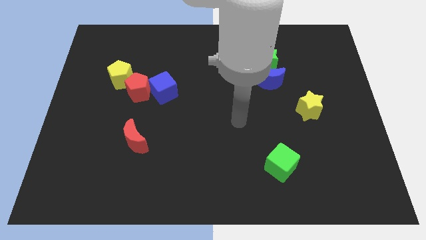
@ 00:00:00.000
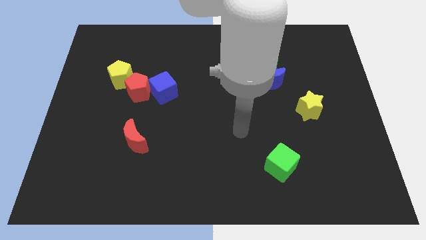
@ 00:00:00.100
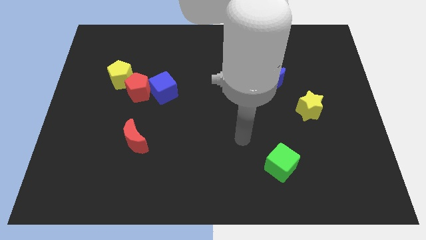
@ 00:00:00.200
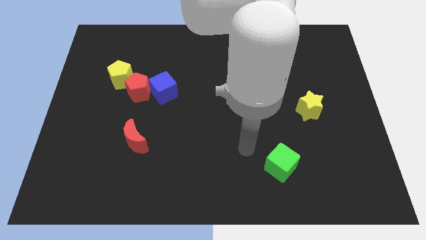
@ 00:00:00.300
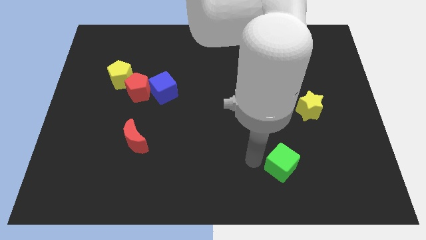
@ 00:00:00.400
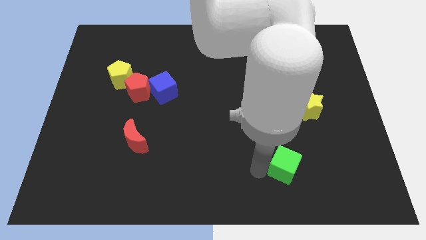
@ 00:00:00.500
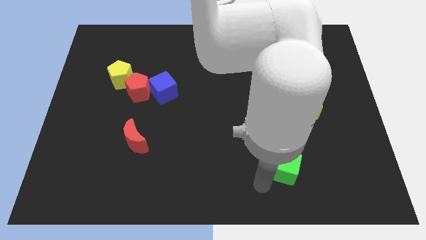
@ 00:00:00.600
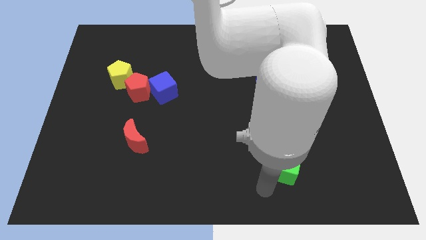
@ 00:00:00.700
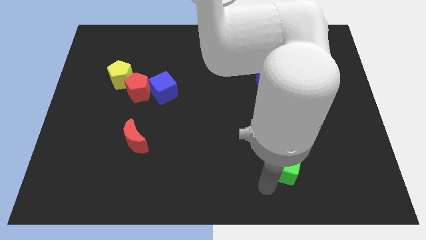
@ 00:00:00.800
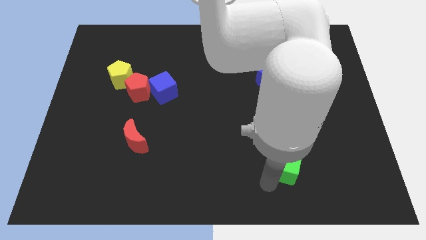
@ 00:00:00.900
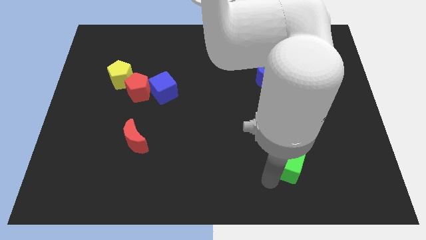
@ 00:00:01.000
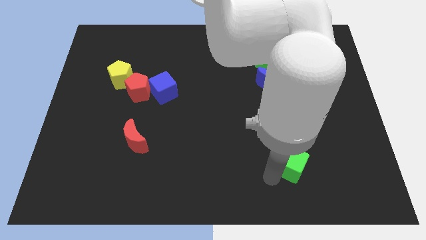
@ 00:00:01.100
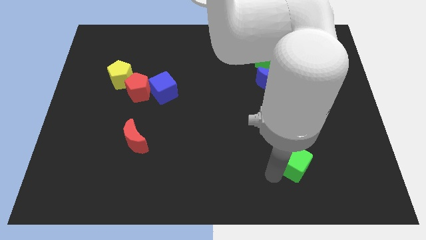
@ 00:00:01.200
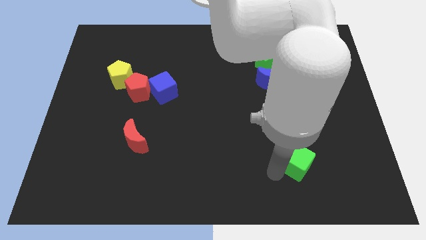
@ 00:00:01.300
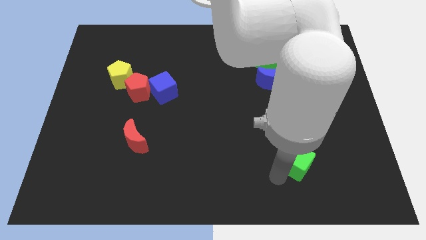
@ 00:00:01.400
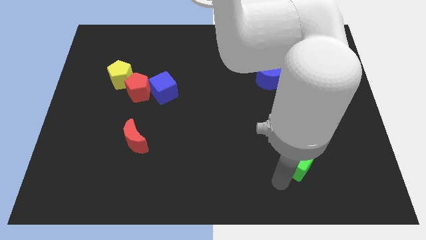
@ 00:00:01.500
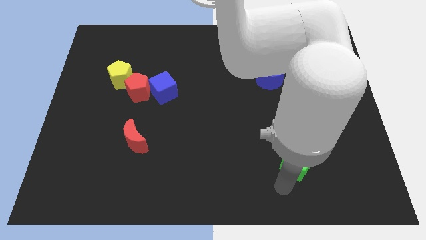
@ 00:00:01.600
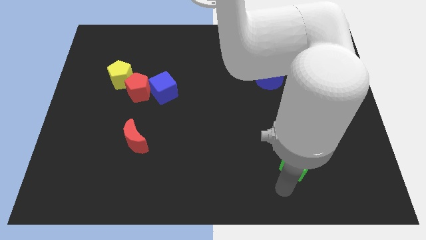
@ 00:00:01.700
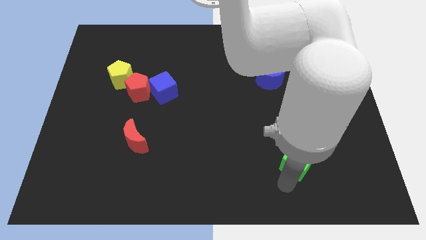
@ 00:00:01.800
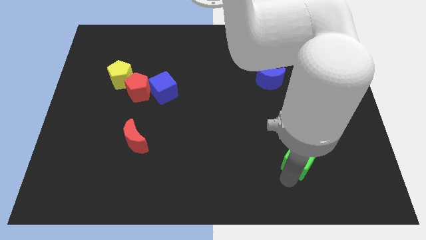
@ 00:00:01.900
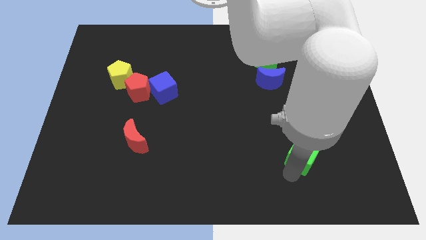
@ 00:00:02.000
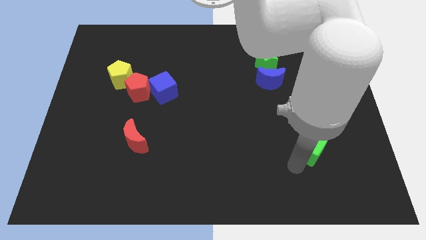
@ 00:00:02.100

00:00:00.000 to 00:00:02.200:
slide the green cube somewhat diagonally up and to the right

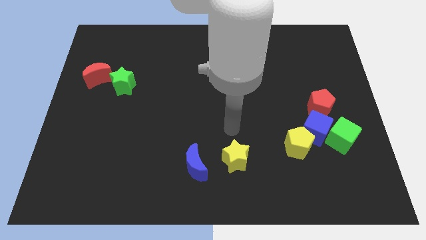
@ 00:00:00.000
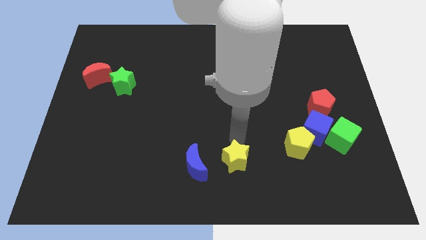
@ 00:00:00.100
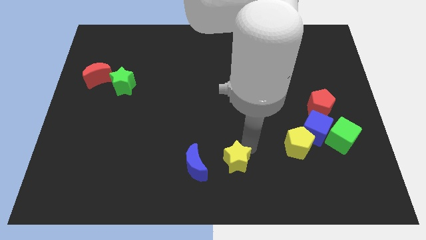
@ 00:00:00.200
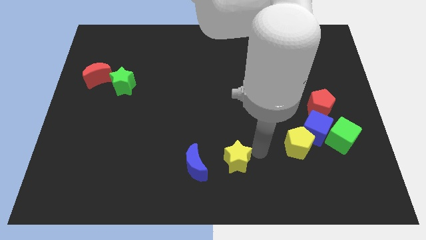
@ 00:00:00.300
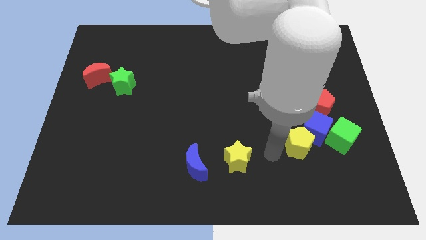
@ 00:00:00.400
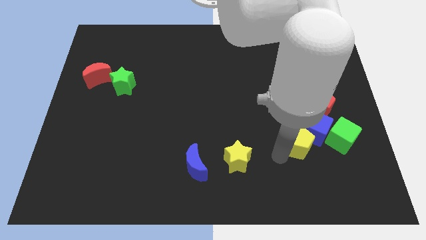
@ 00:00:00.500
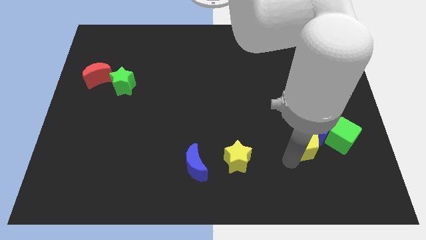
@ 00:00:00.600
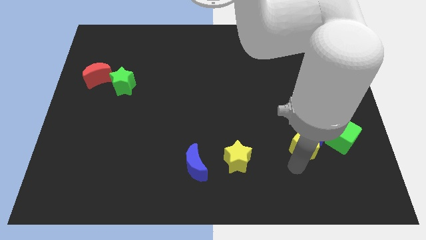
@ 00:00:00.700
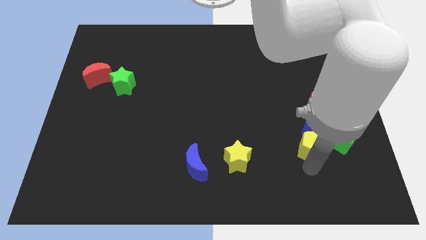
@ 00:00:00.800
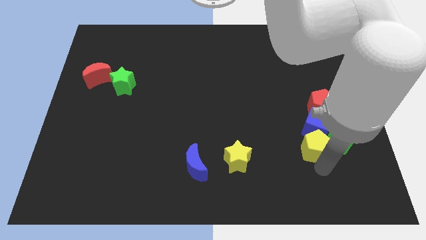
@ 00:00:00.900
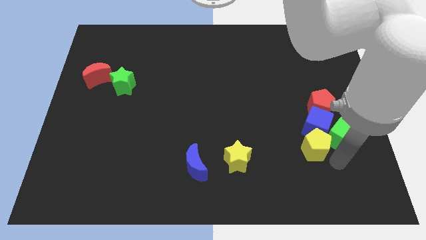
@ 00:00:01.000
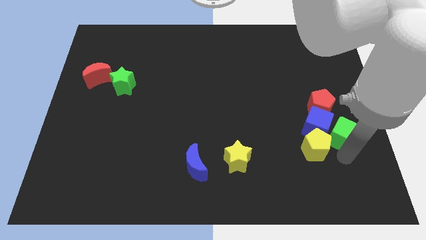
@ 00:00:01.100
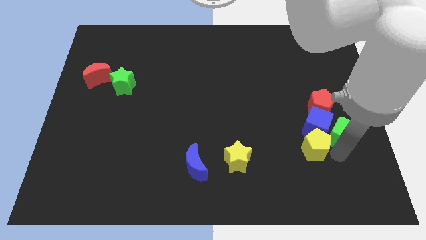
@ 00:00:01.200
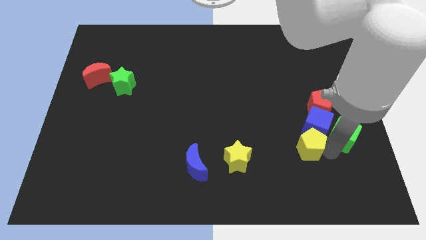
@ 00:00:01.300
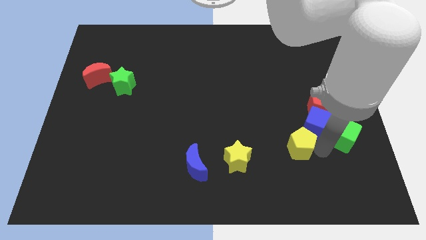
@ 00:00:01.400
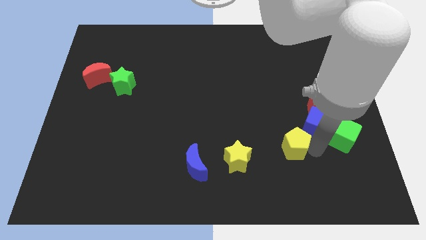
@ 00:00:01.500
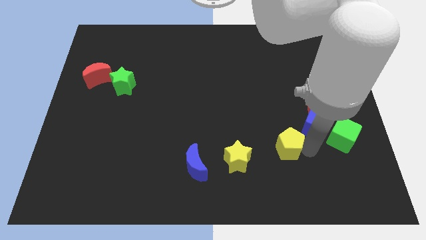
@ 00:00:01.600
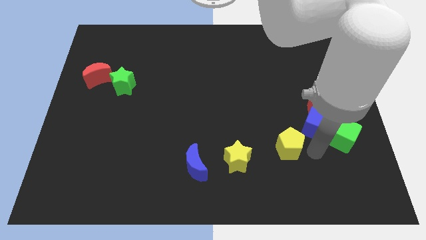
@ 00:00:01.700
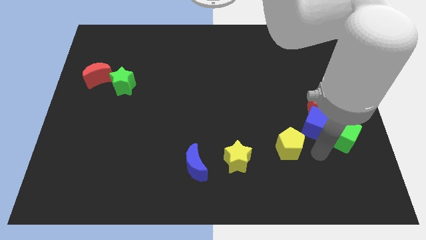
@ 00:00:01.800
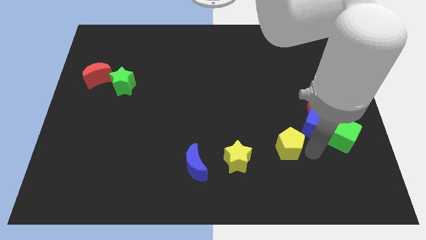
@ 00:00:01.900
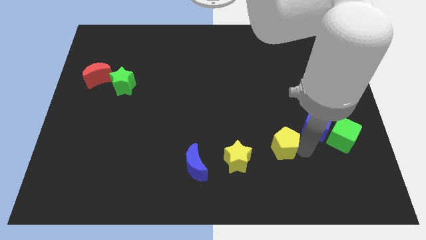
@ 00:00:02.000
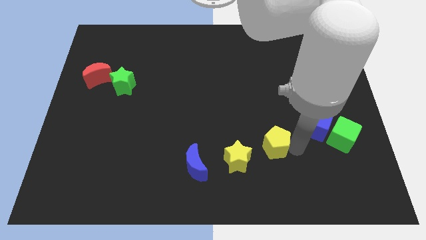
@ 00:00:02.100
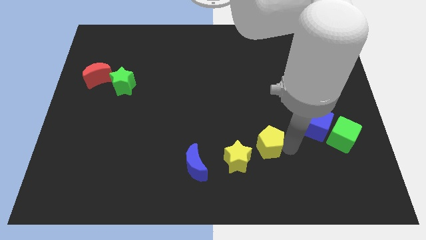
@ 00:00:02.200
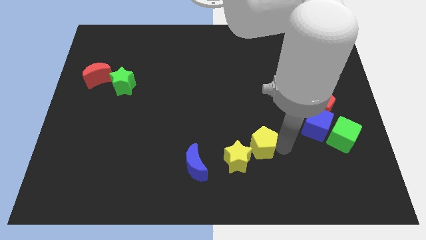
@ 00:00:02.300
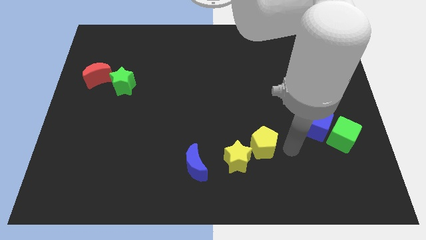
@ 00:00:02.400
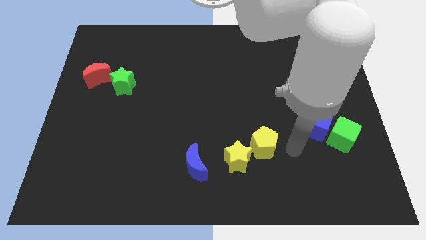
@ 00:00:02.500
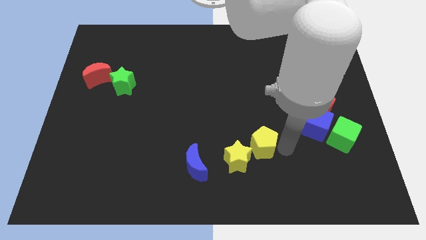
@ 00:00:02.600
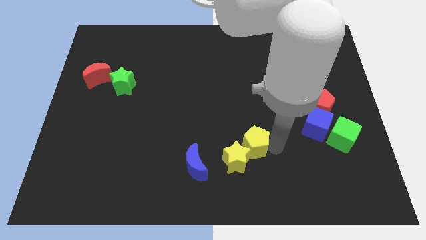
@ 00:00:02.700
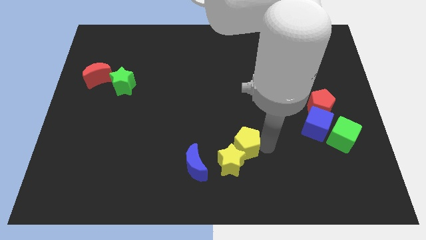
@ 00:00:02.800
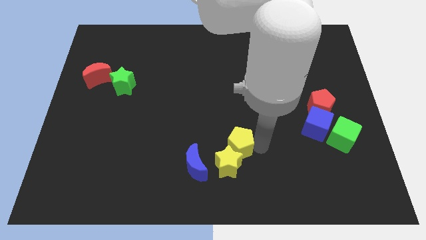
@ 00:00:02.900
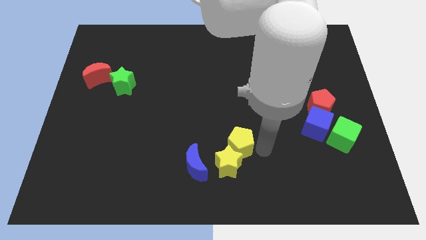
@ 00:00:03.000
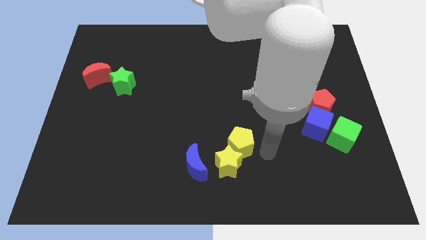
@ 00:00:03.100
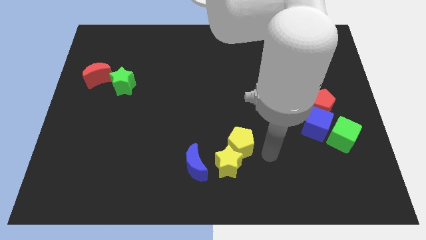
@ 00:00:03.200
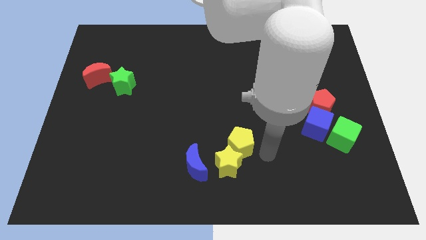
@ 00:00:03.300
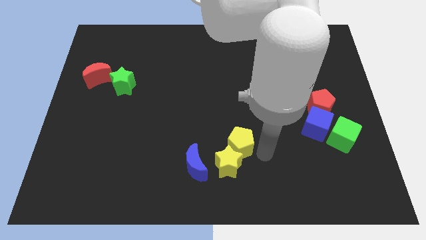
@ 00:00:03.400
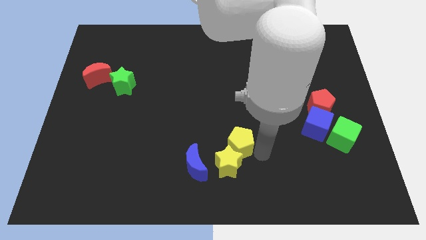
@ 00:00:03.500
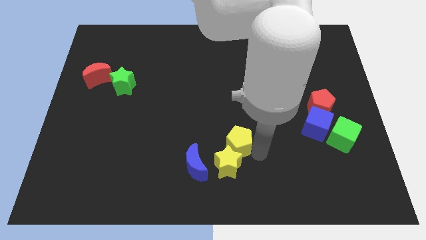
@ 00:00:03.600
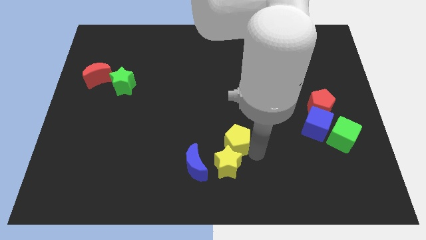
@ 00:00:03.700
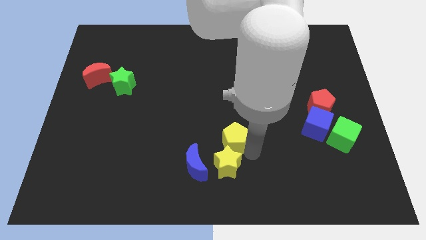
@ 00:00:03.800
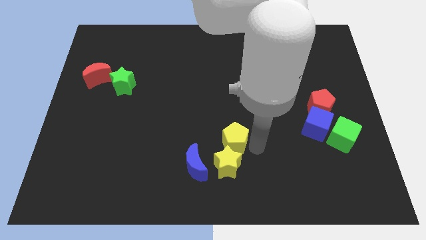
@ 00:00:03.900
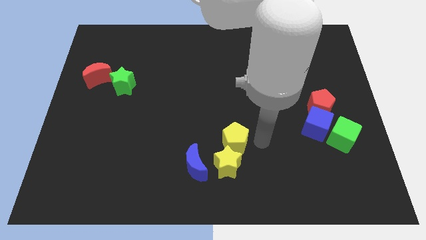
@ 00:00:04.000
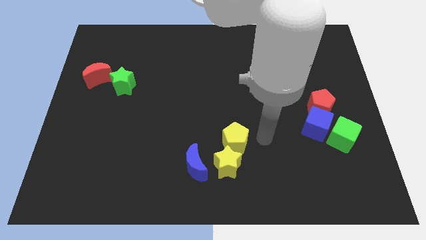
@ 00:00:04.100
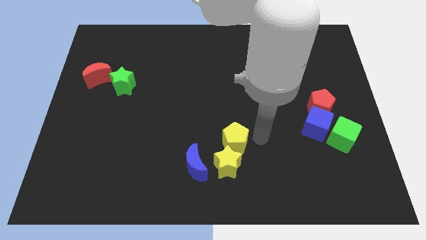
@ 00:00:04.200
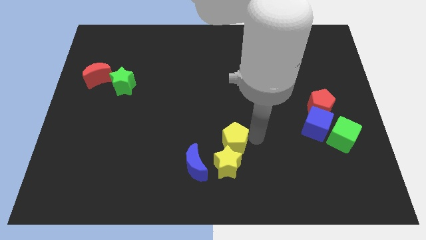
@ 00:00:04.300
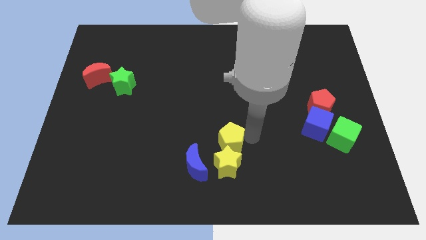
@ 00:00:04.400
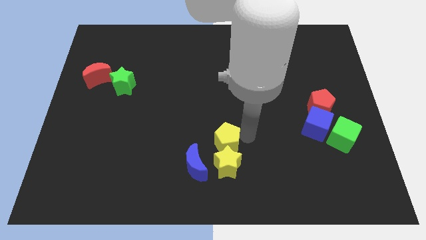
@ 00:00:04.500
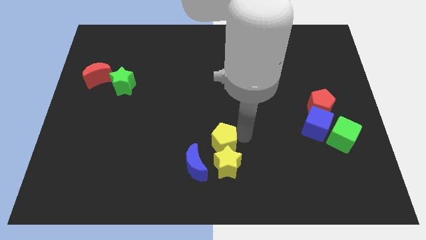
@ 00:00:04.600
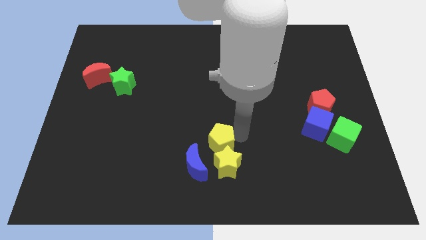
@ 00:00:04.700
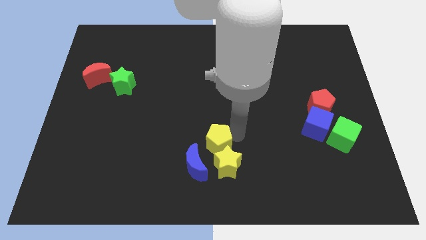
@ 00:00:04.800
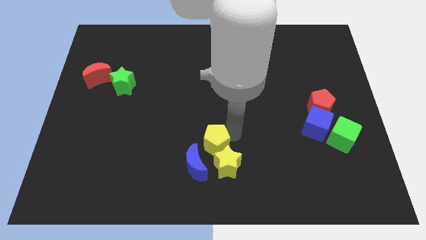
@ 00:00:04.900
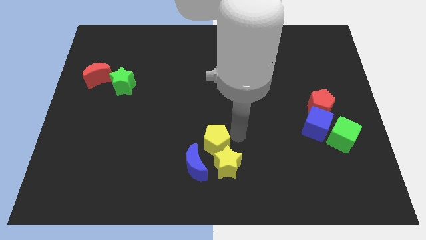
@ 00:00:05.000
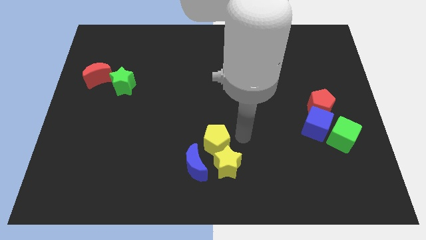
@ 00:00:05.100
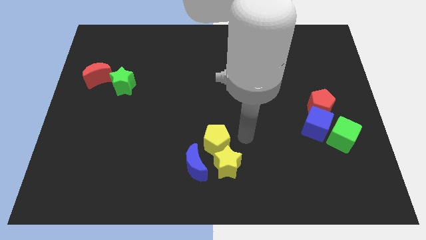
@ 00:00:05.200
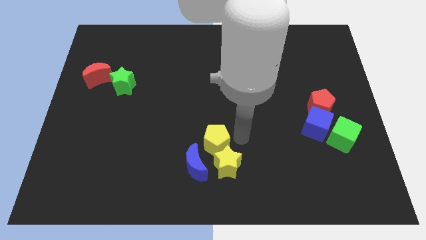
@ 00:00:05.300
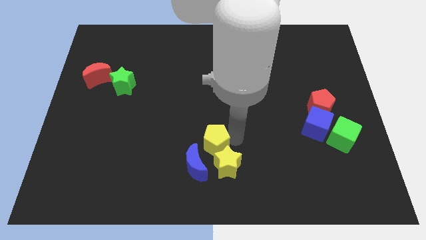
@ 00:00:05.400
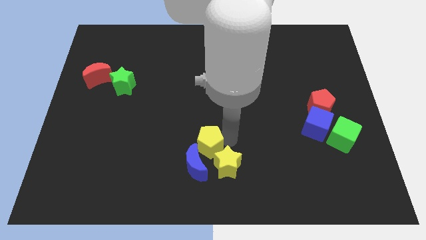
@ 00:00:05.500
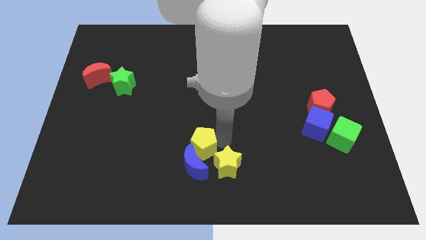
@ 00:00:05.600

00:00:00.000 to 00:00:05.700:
move the yellow pentagon to the left
